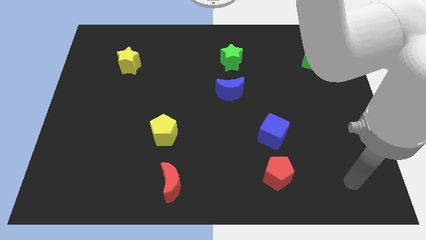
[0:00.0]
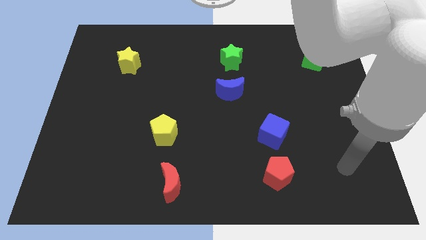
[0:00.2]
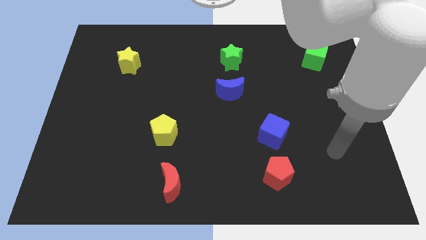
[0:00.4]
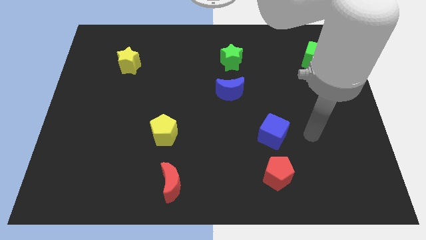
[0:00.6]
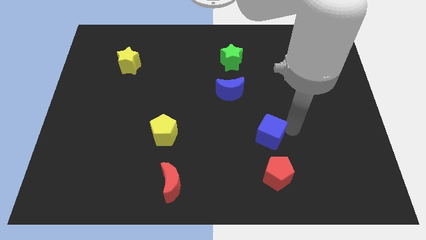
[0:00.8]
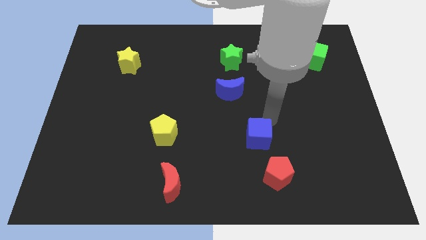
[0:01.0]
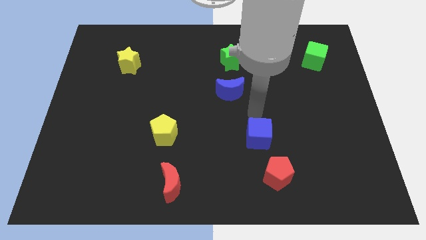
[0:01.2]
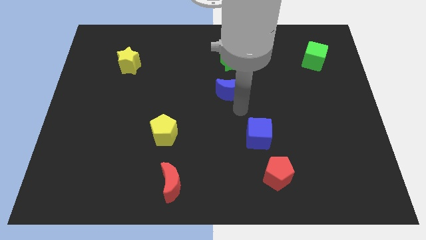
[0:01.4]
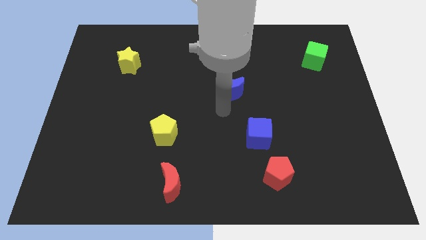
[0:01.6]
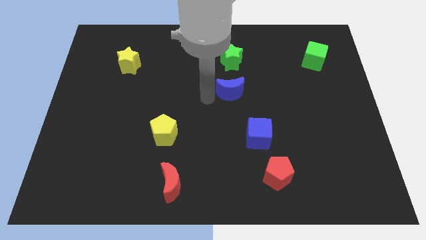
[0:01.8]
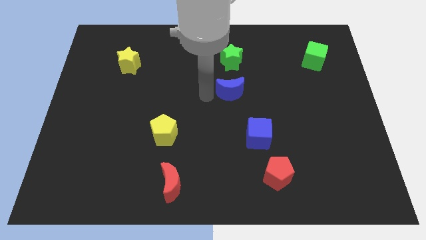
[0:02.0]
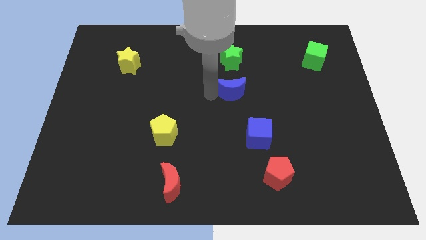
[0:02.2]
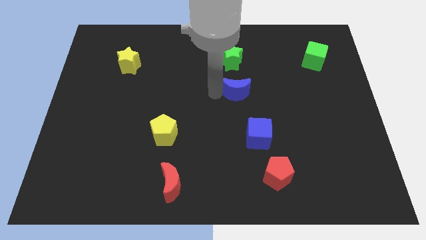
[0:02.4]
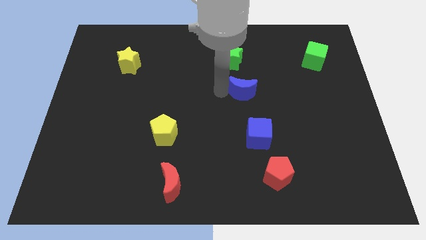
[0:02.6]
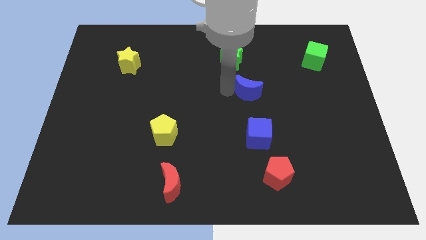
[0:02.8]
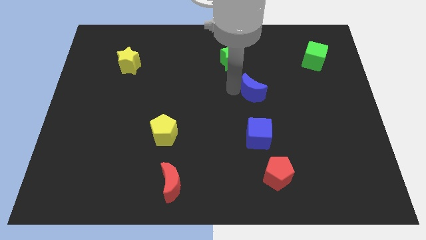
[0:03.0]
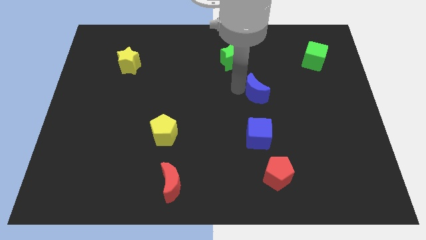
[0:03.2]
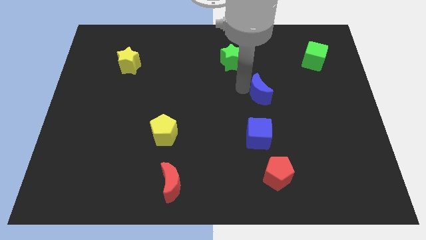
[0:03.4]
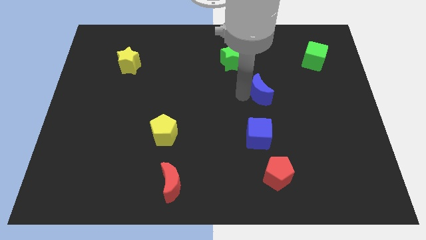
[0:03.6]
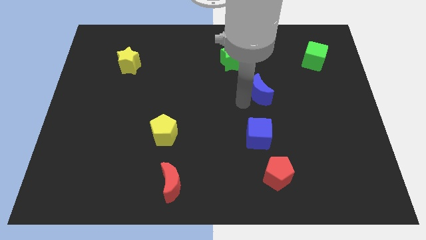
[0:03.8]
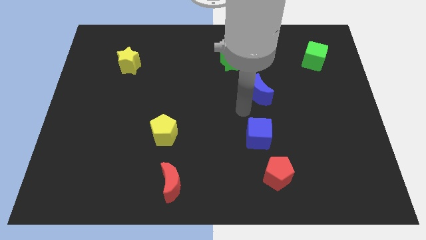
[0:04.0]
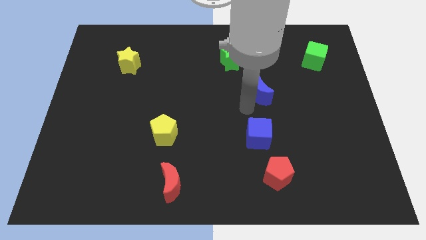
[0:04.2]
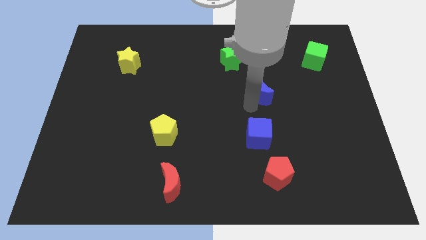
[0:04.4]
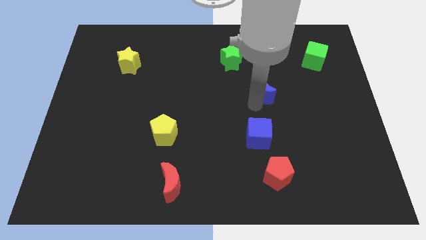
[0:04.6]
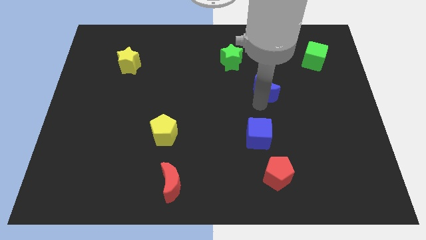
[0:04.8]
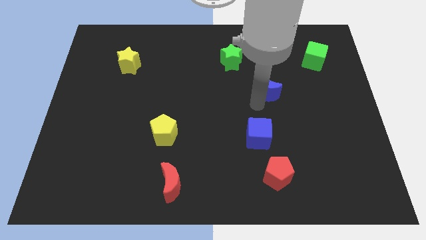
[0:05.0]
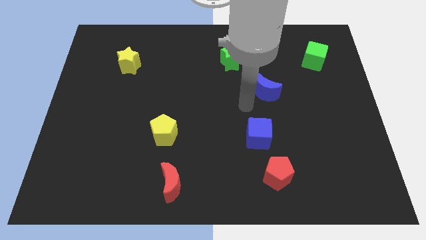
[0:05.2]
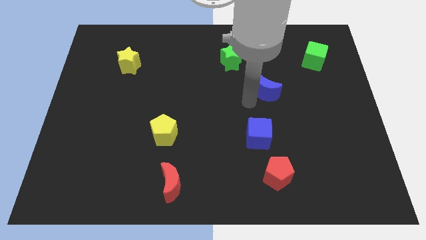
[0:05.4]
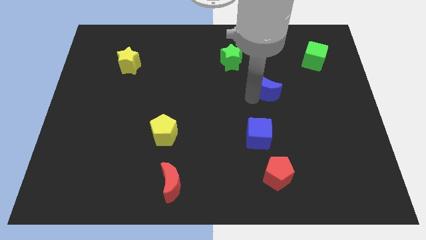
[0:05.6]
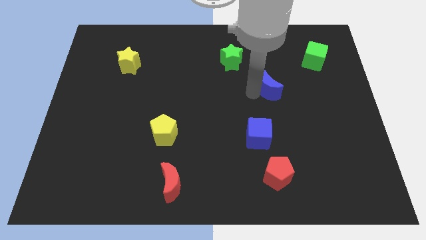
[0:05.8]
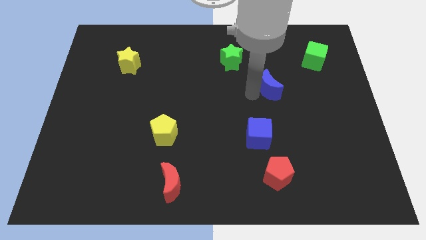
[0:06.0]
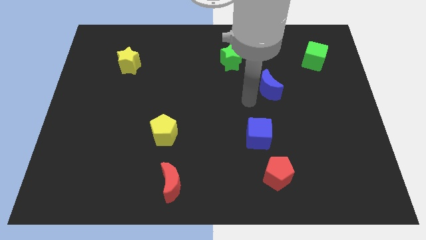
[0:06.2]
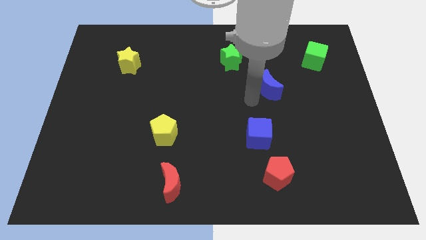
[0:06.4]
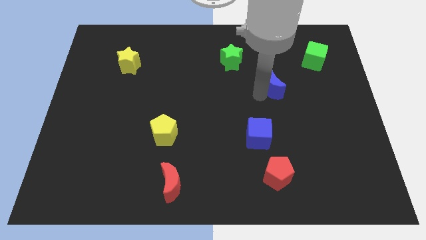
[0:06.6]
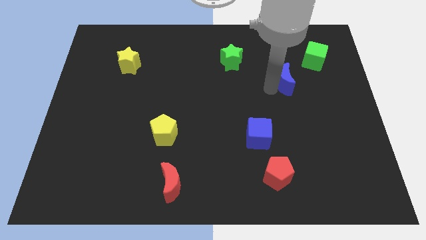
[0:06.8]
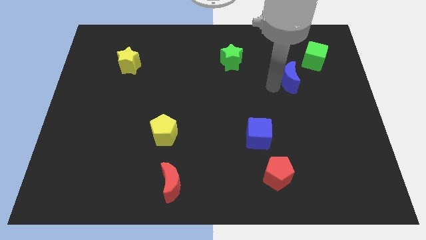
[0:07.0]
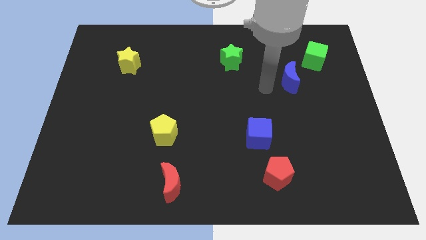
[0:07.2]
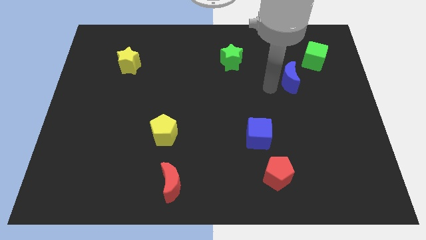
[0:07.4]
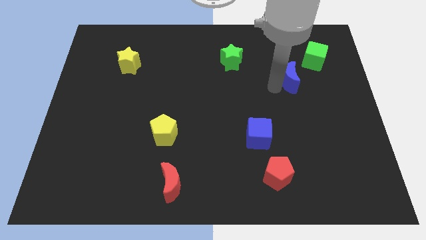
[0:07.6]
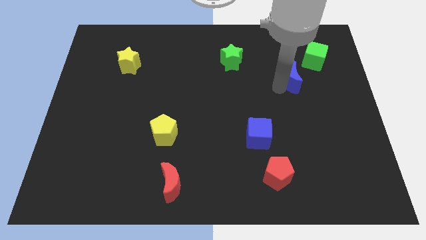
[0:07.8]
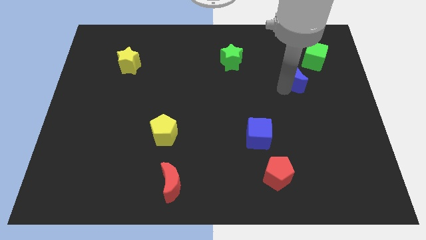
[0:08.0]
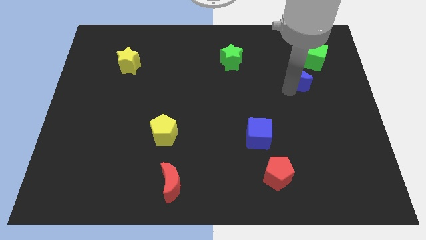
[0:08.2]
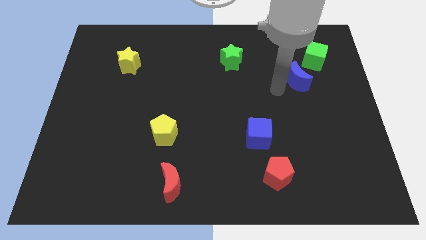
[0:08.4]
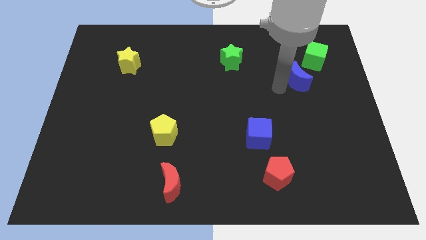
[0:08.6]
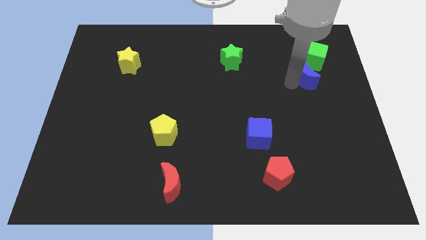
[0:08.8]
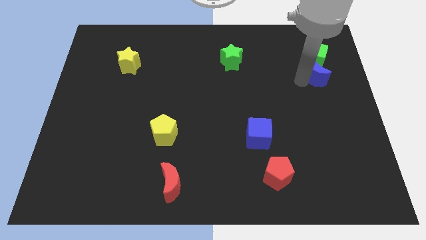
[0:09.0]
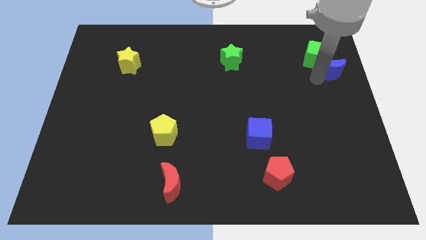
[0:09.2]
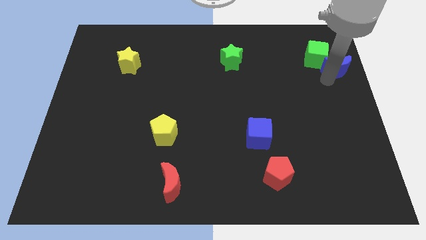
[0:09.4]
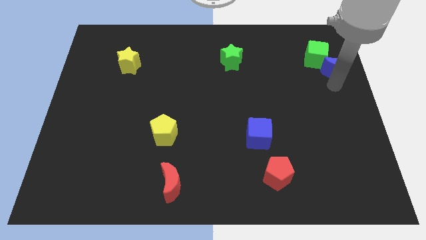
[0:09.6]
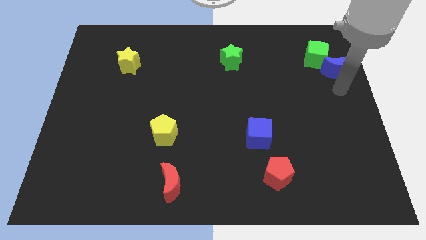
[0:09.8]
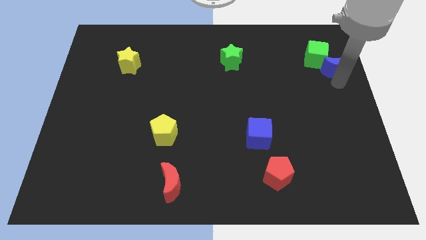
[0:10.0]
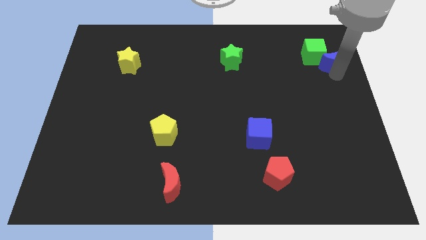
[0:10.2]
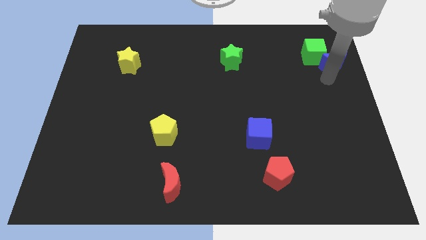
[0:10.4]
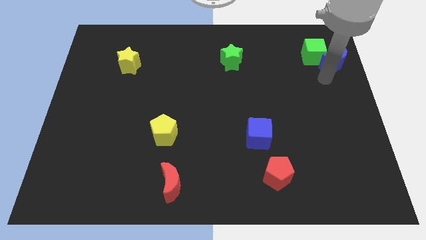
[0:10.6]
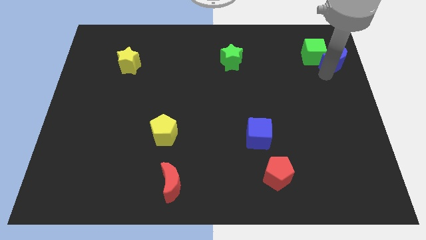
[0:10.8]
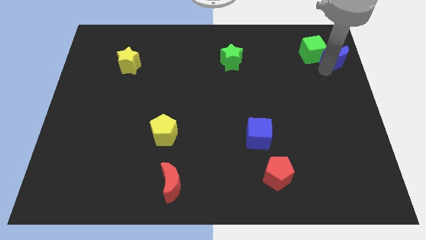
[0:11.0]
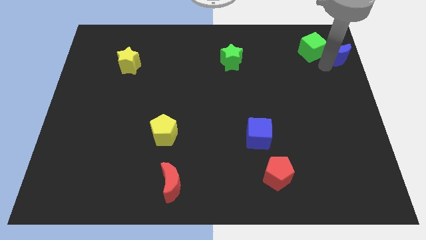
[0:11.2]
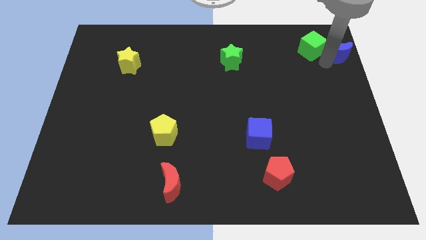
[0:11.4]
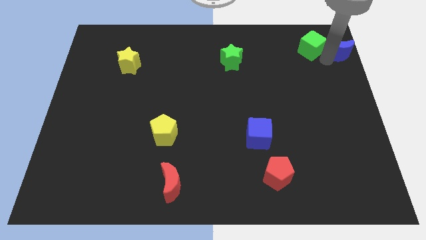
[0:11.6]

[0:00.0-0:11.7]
put the blue moon to the top right

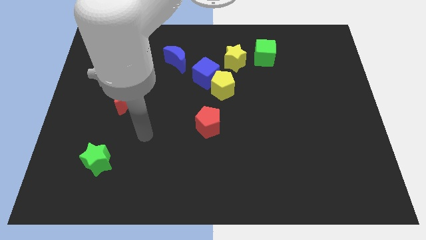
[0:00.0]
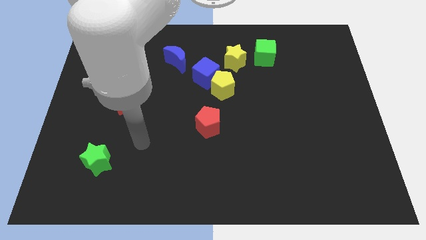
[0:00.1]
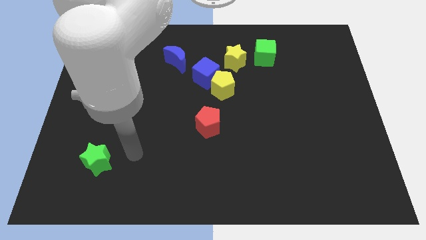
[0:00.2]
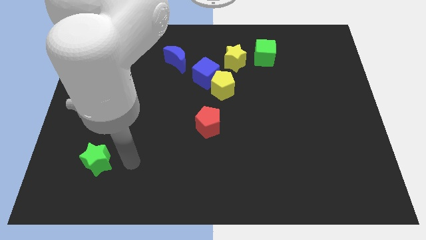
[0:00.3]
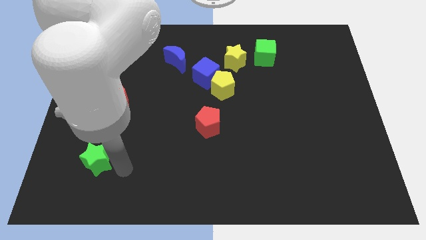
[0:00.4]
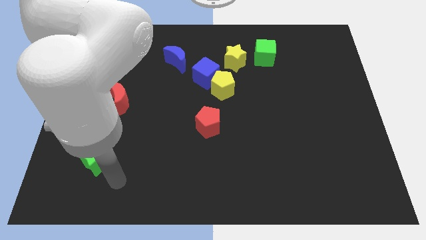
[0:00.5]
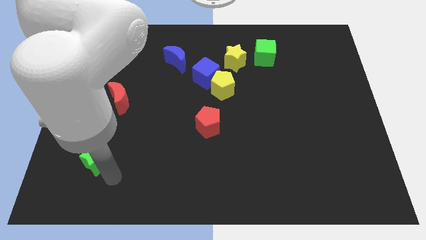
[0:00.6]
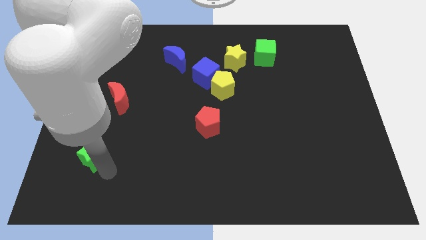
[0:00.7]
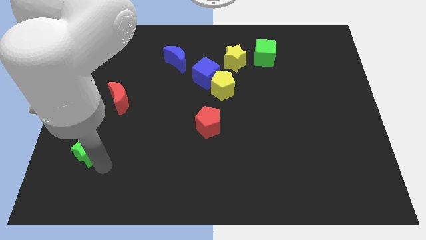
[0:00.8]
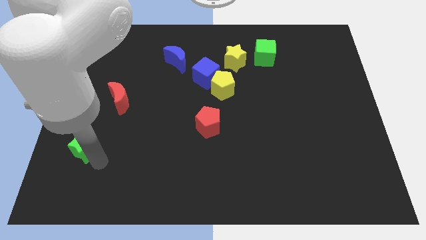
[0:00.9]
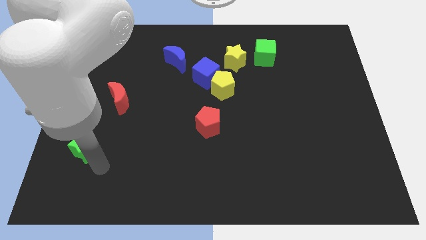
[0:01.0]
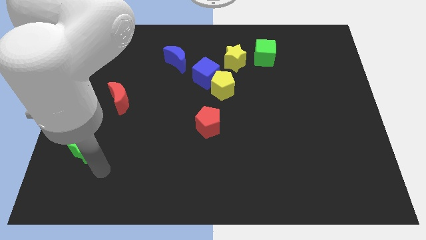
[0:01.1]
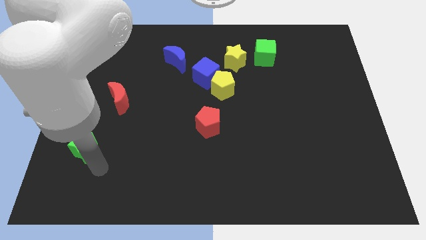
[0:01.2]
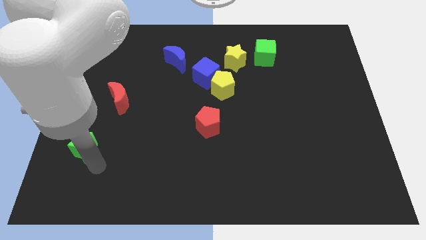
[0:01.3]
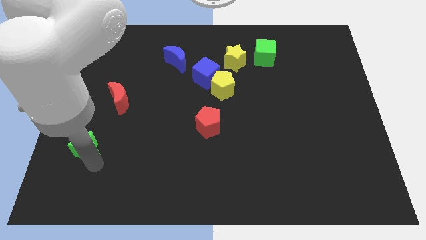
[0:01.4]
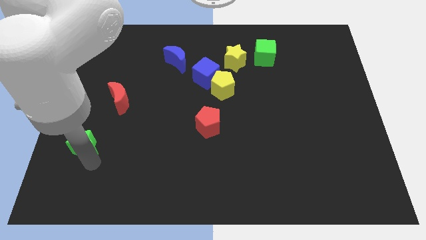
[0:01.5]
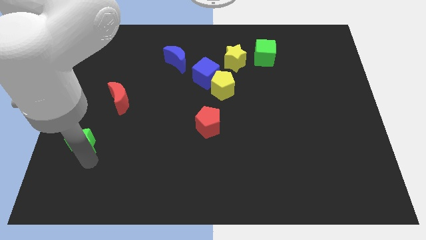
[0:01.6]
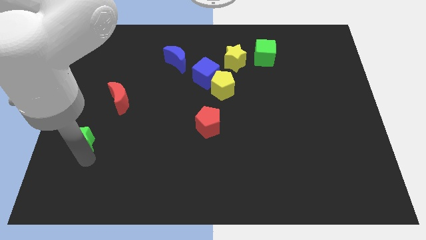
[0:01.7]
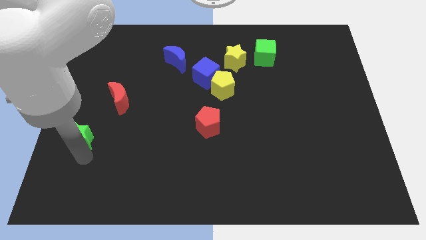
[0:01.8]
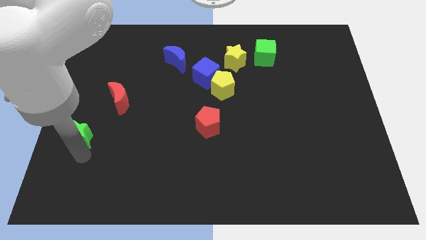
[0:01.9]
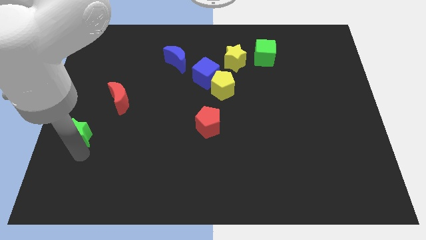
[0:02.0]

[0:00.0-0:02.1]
push the green star to the left side of the board
